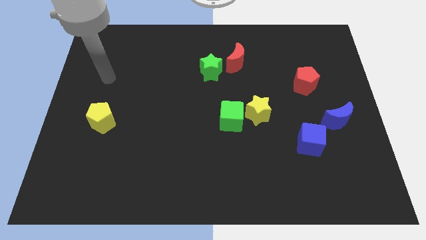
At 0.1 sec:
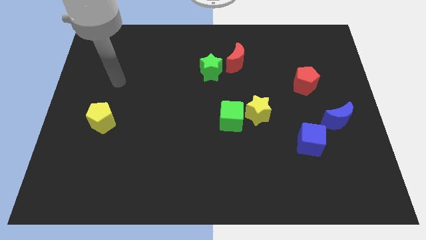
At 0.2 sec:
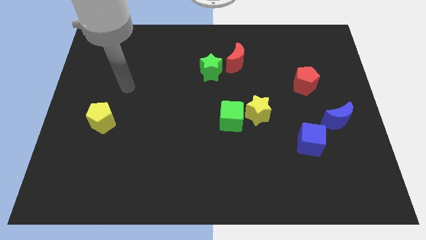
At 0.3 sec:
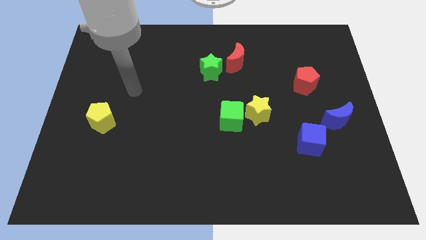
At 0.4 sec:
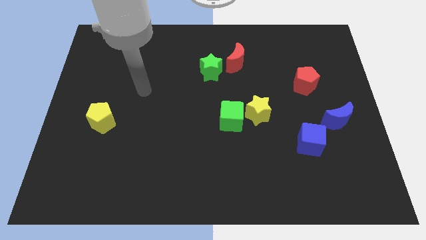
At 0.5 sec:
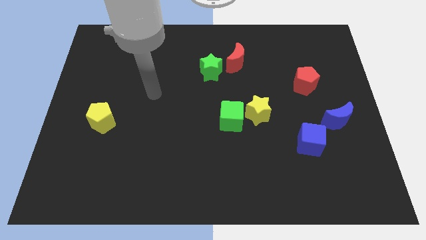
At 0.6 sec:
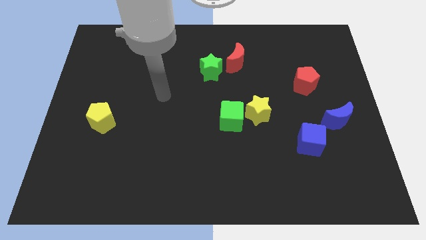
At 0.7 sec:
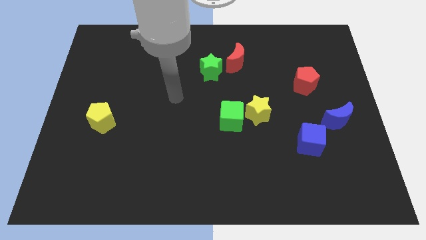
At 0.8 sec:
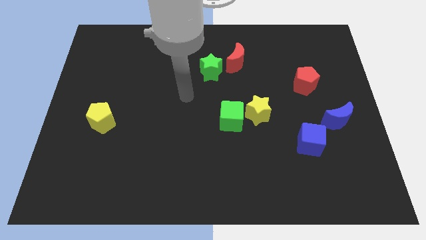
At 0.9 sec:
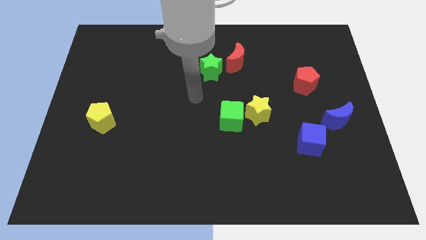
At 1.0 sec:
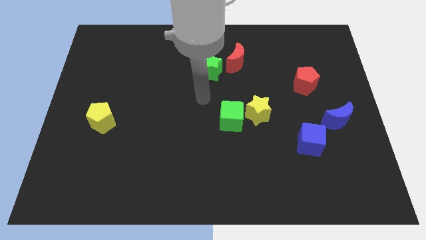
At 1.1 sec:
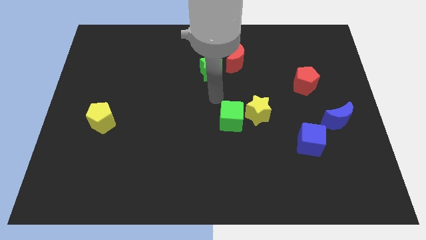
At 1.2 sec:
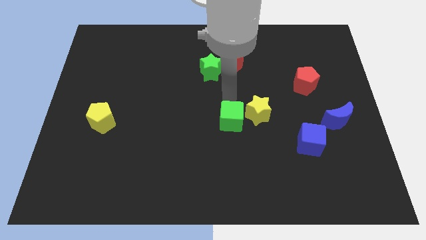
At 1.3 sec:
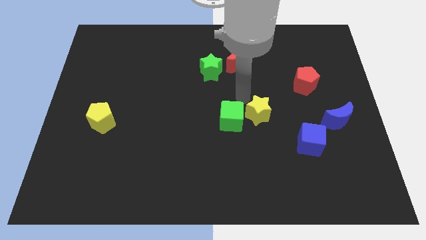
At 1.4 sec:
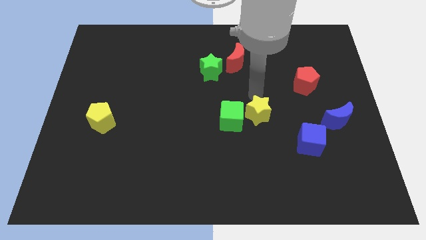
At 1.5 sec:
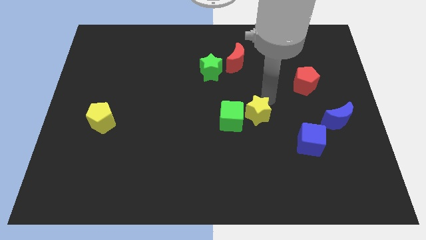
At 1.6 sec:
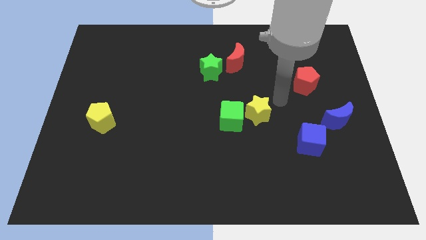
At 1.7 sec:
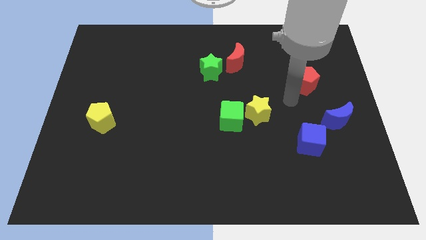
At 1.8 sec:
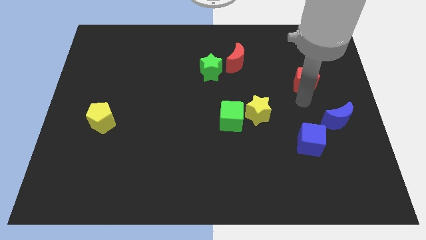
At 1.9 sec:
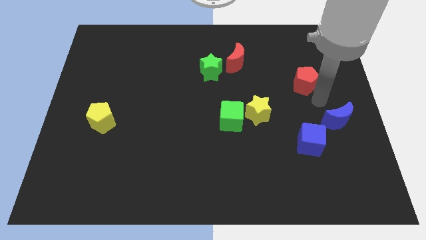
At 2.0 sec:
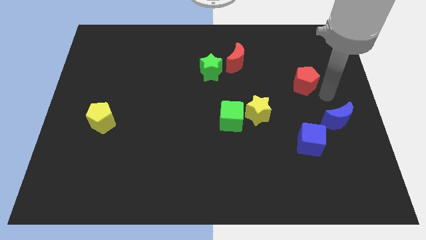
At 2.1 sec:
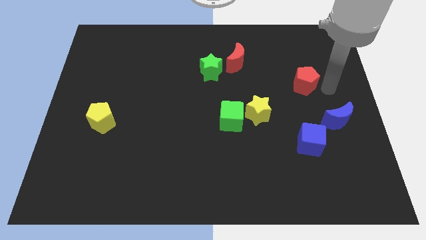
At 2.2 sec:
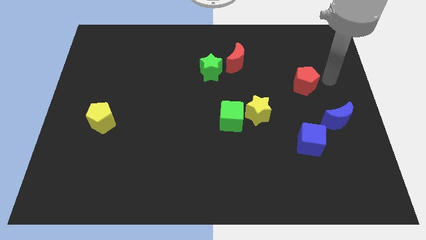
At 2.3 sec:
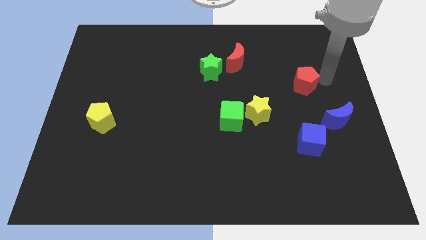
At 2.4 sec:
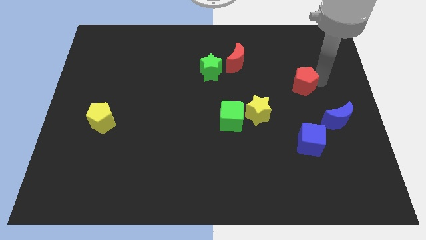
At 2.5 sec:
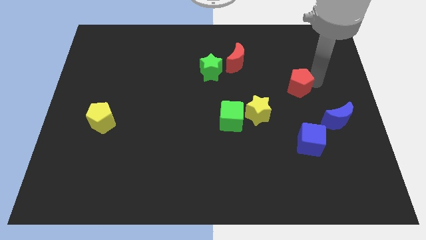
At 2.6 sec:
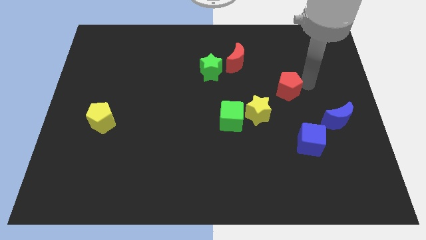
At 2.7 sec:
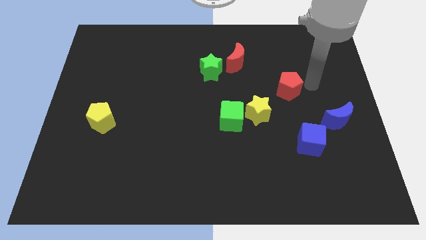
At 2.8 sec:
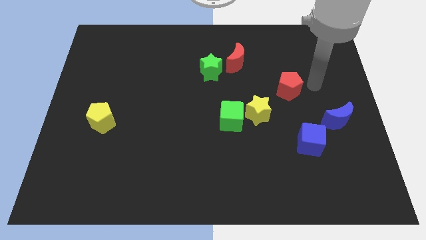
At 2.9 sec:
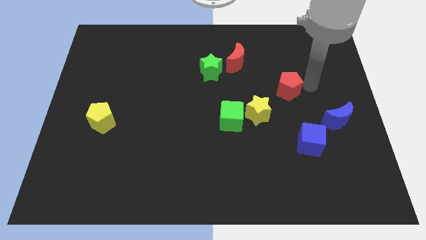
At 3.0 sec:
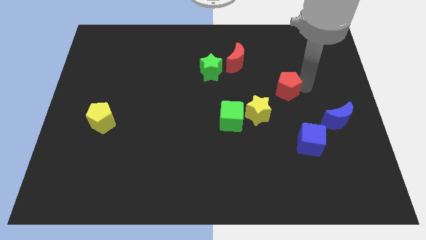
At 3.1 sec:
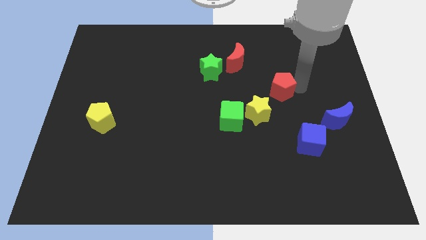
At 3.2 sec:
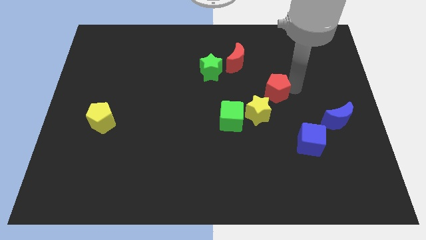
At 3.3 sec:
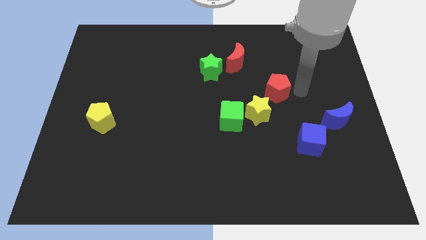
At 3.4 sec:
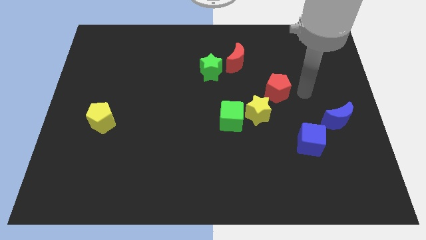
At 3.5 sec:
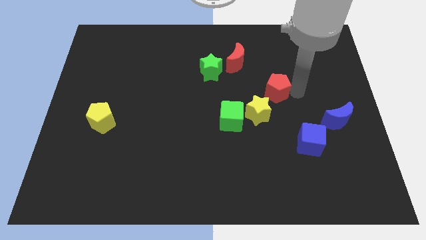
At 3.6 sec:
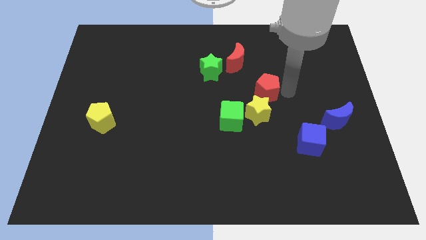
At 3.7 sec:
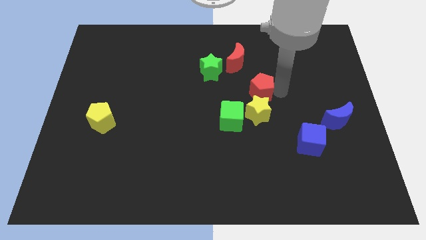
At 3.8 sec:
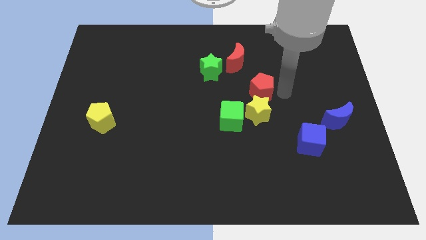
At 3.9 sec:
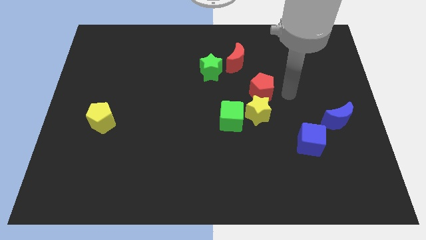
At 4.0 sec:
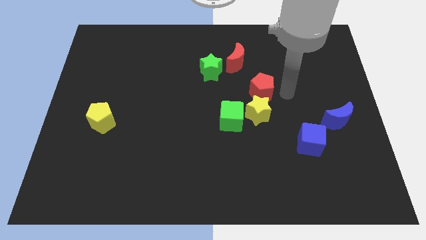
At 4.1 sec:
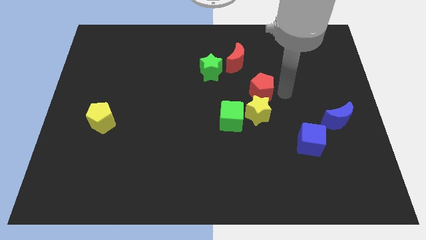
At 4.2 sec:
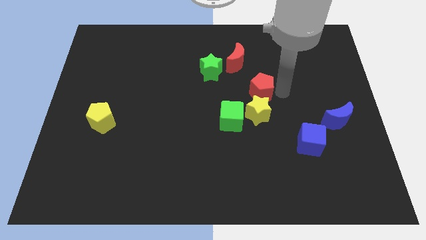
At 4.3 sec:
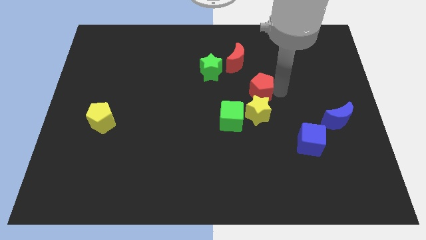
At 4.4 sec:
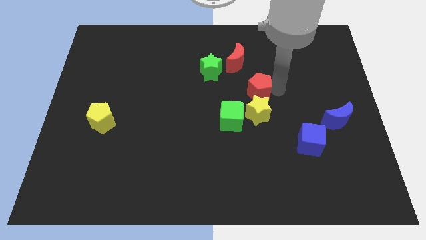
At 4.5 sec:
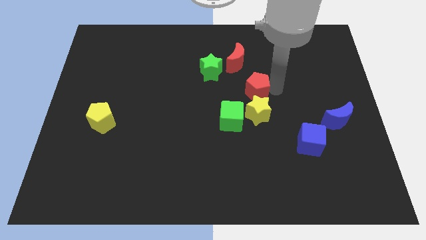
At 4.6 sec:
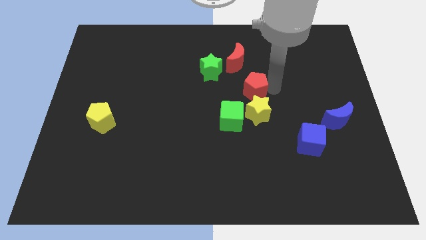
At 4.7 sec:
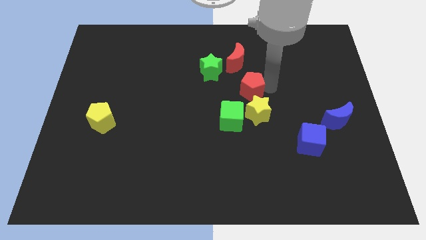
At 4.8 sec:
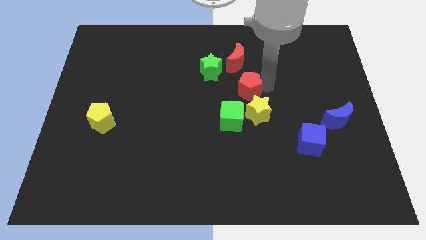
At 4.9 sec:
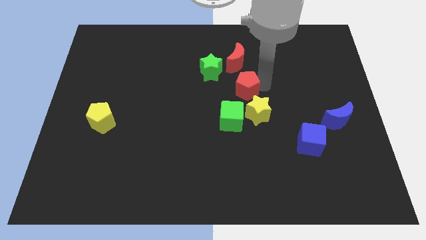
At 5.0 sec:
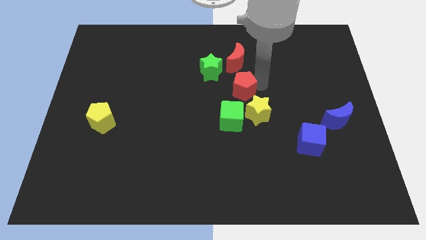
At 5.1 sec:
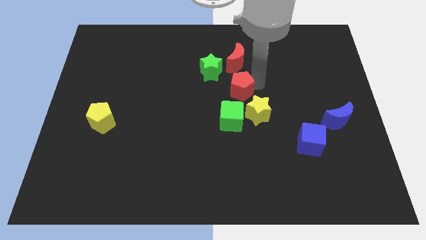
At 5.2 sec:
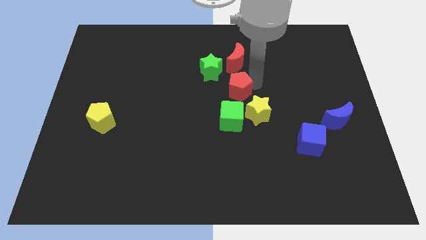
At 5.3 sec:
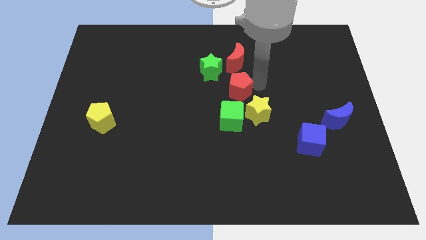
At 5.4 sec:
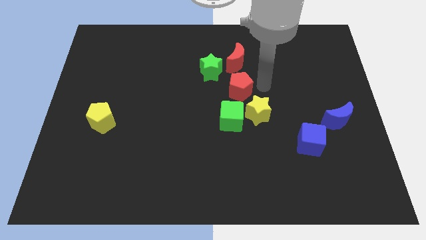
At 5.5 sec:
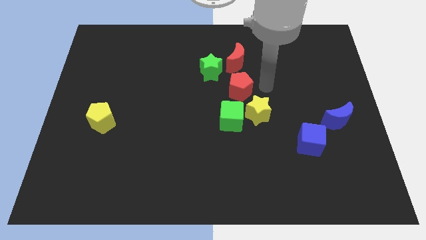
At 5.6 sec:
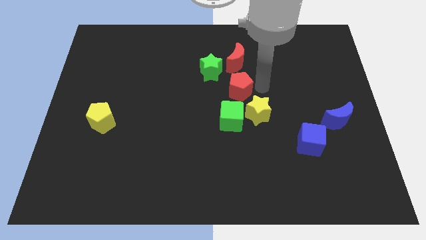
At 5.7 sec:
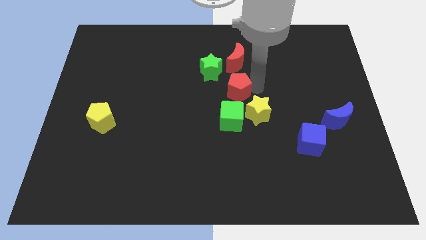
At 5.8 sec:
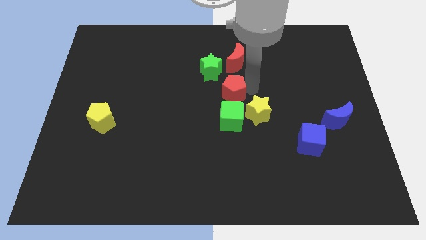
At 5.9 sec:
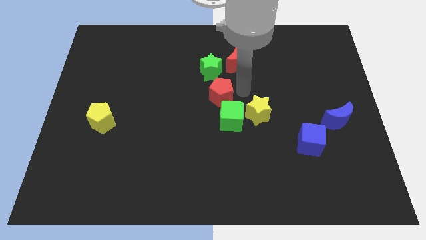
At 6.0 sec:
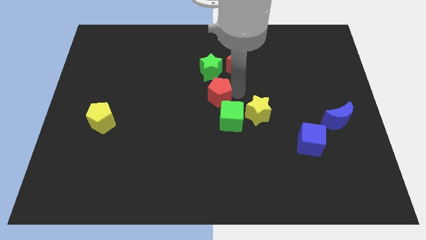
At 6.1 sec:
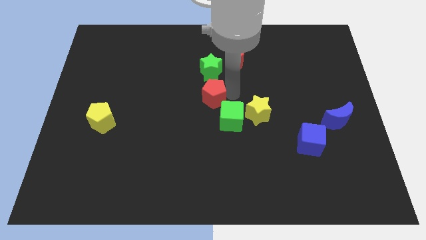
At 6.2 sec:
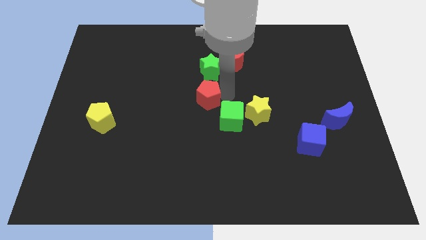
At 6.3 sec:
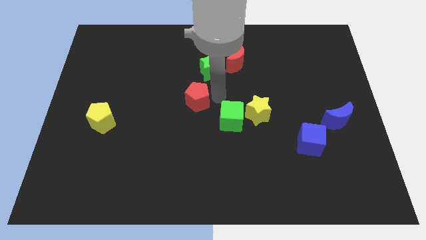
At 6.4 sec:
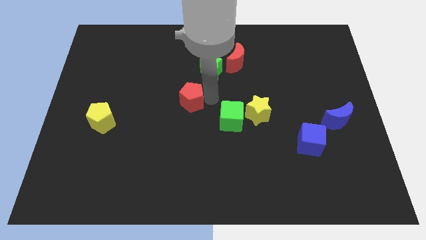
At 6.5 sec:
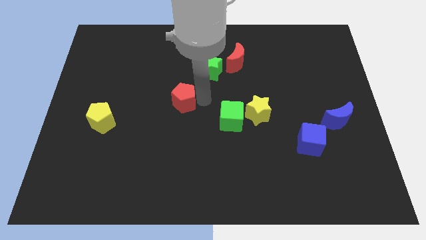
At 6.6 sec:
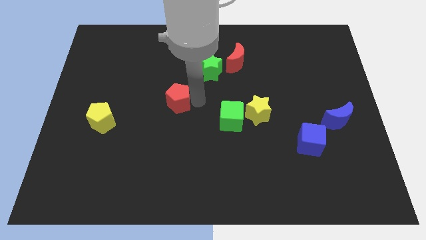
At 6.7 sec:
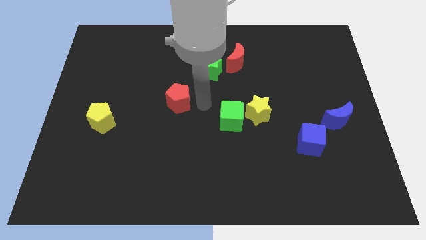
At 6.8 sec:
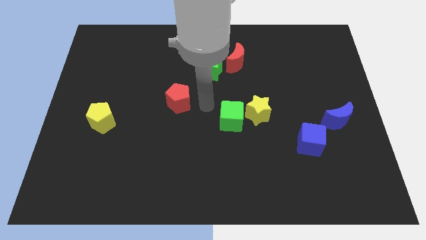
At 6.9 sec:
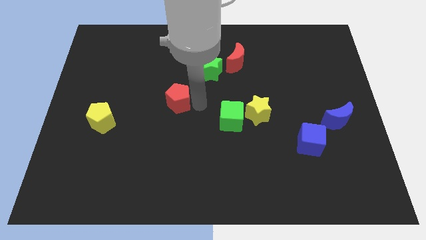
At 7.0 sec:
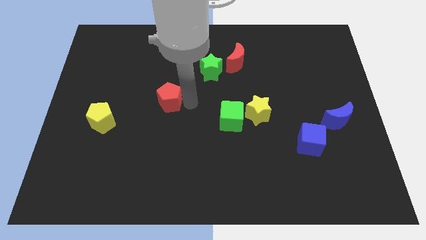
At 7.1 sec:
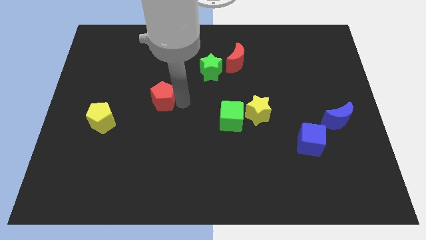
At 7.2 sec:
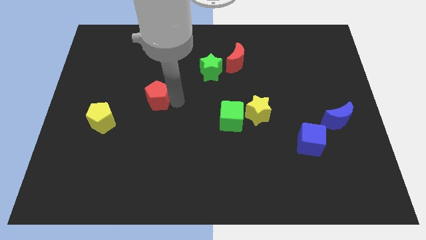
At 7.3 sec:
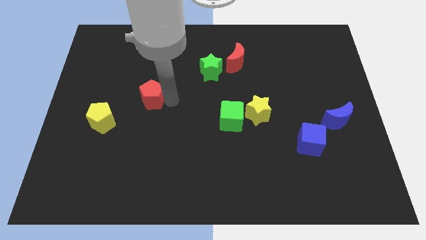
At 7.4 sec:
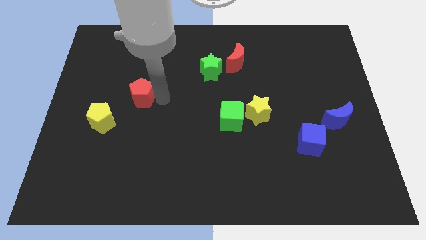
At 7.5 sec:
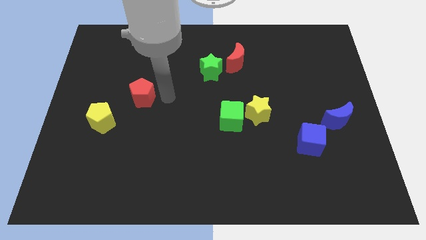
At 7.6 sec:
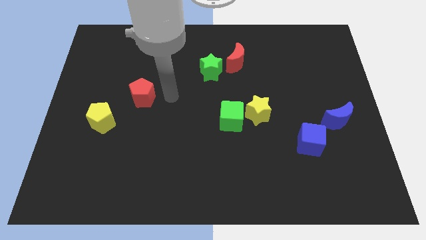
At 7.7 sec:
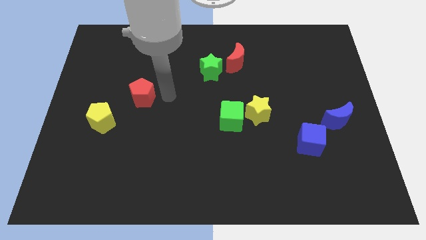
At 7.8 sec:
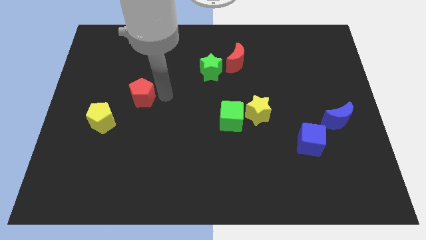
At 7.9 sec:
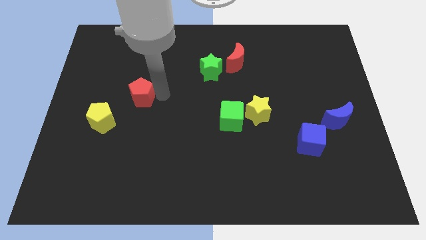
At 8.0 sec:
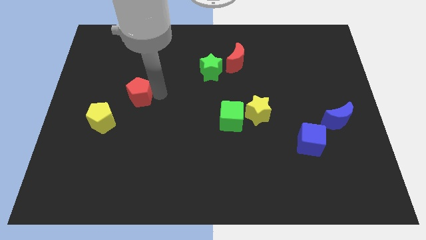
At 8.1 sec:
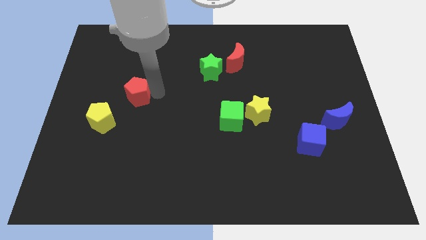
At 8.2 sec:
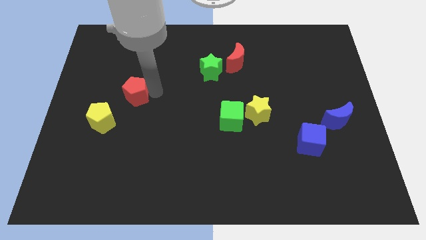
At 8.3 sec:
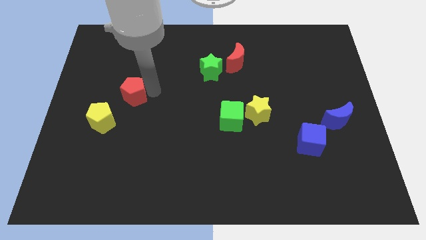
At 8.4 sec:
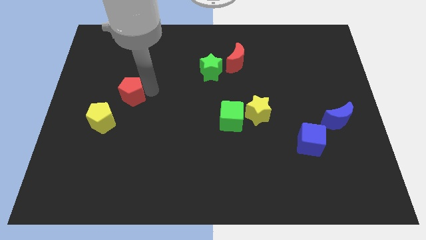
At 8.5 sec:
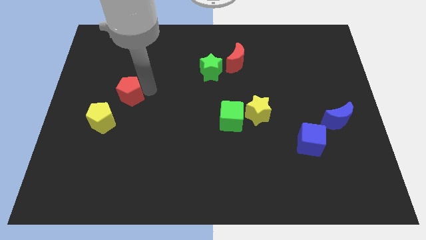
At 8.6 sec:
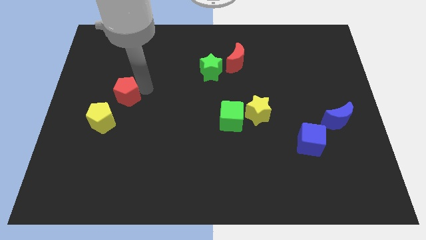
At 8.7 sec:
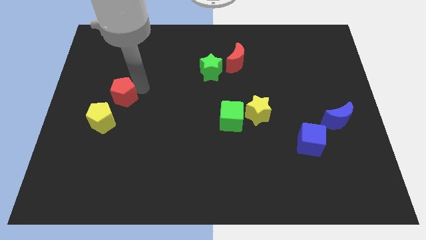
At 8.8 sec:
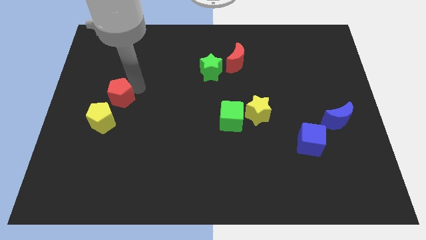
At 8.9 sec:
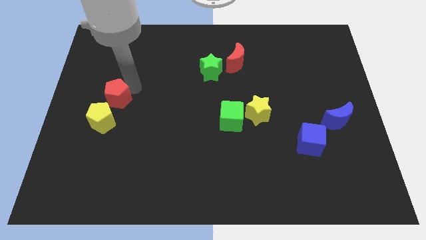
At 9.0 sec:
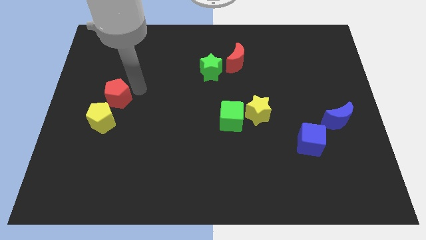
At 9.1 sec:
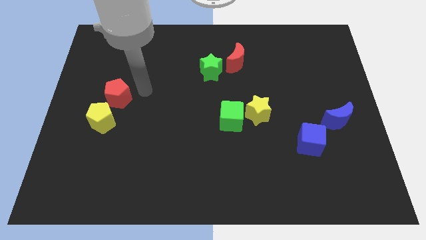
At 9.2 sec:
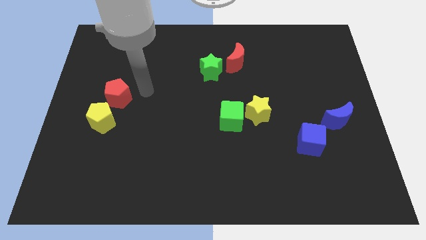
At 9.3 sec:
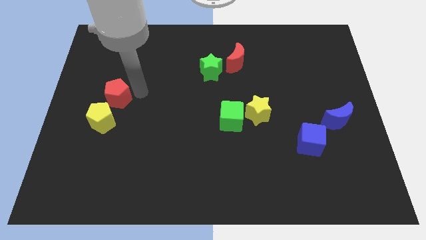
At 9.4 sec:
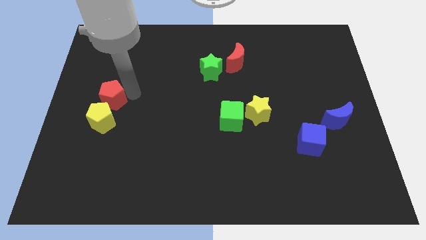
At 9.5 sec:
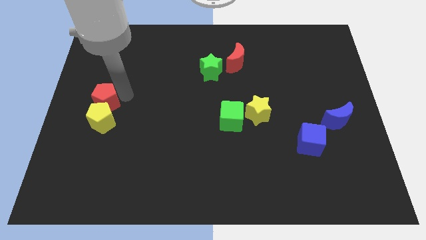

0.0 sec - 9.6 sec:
push the red pentagon to the left side
